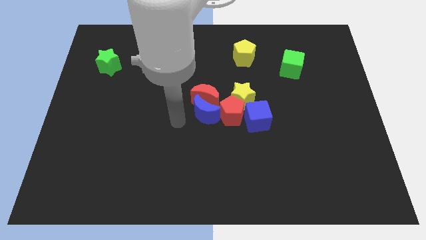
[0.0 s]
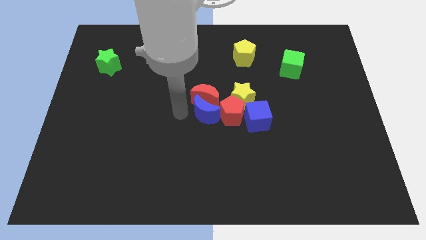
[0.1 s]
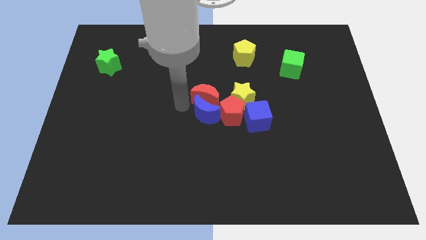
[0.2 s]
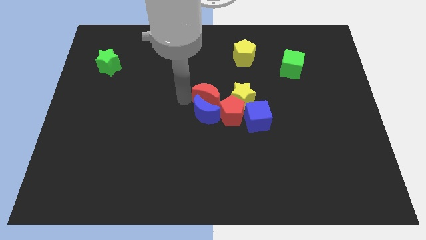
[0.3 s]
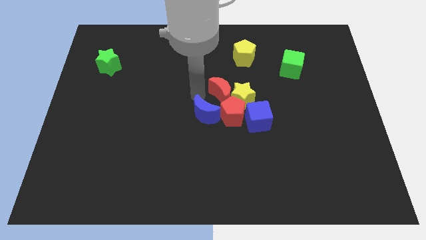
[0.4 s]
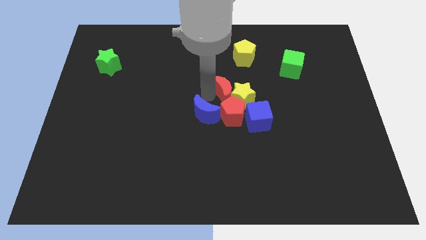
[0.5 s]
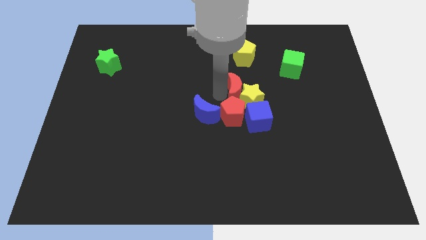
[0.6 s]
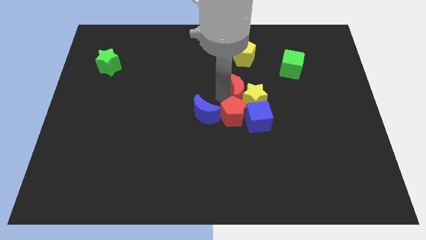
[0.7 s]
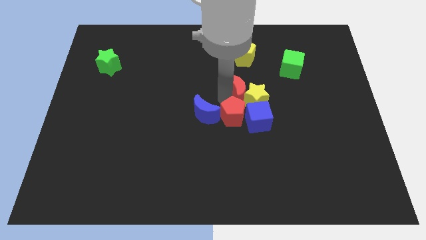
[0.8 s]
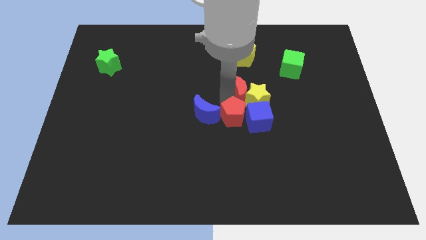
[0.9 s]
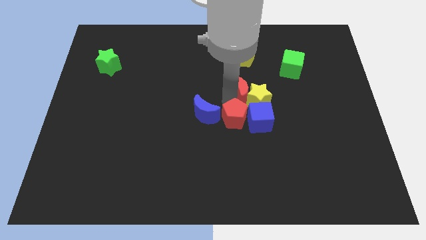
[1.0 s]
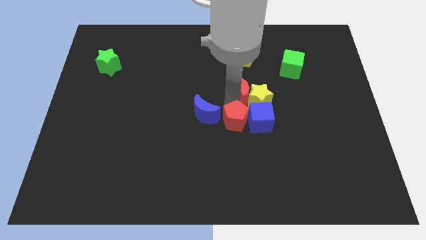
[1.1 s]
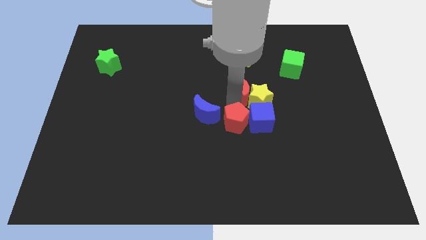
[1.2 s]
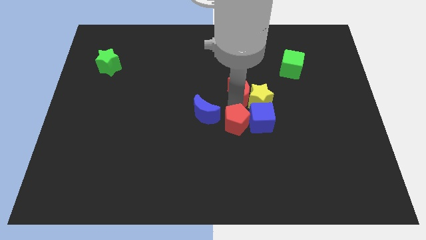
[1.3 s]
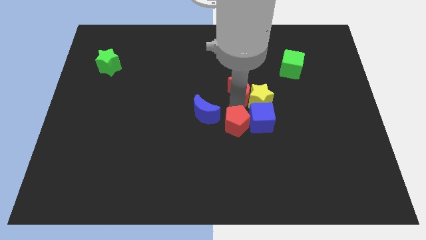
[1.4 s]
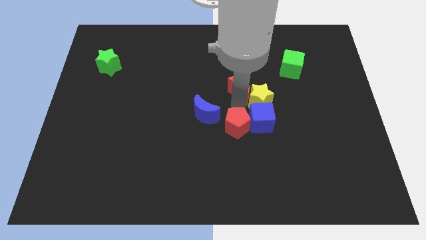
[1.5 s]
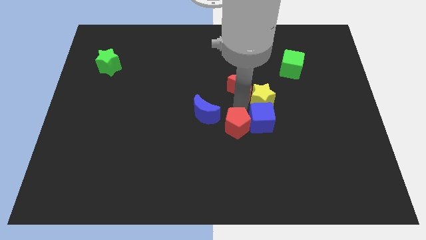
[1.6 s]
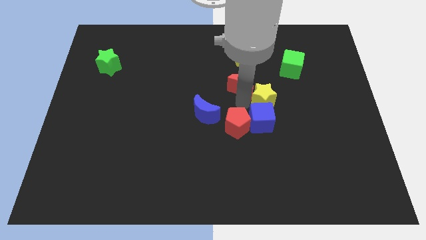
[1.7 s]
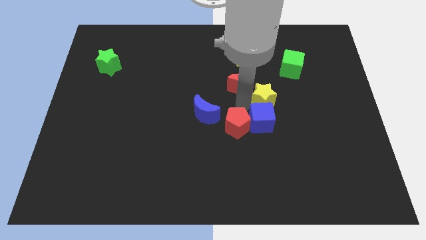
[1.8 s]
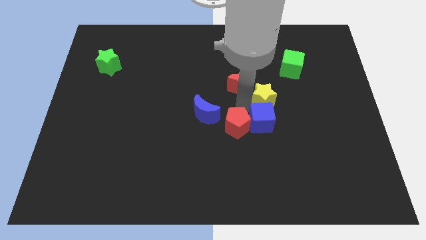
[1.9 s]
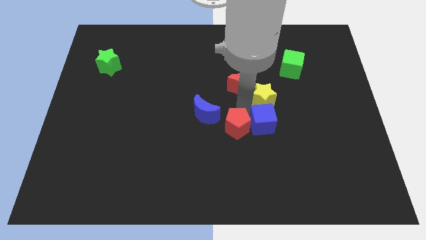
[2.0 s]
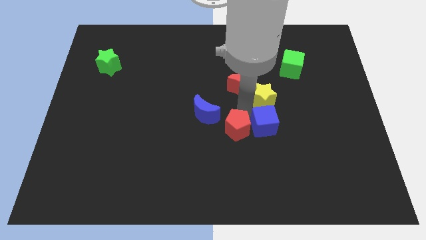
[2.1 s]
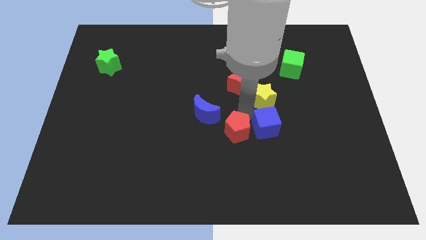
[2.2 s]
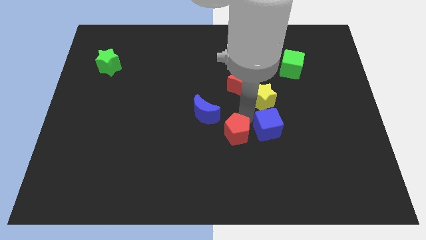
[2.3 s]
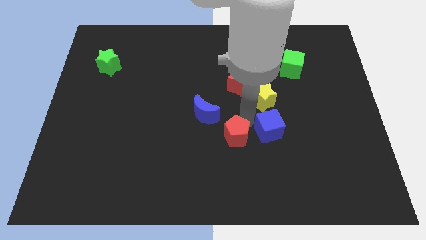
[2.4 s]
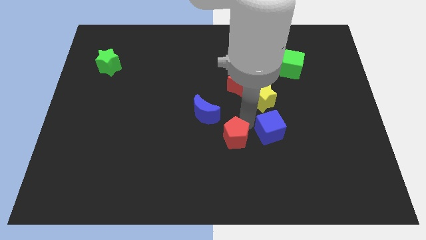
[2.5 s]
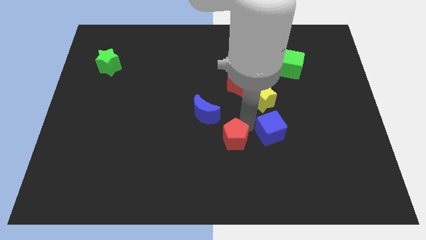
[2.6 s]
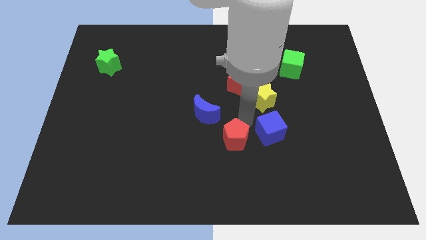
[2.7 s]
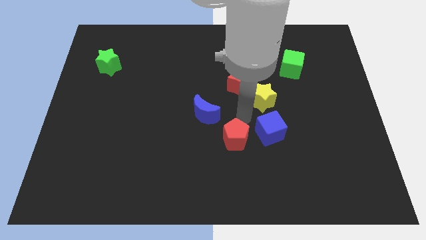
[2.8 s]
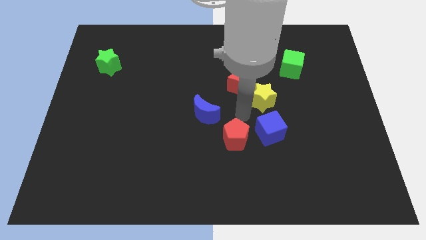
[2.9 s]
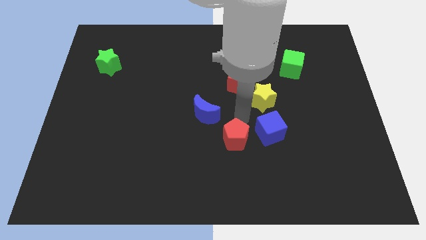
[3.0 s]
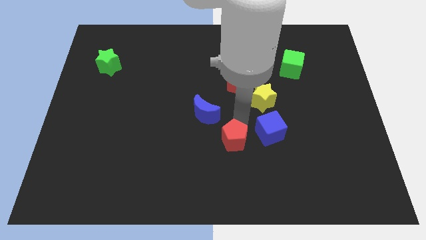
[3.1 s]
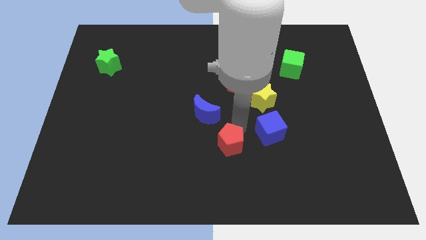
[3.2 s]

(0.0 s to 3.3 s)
pull the red pentagon apart from the clump

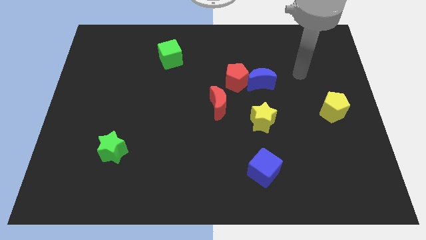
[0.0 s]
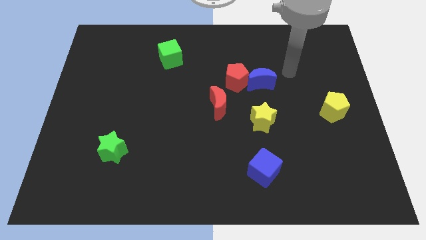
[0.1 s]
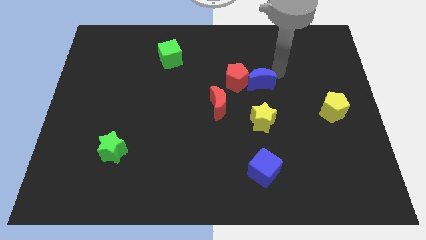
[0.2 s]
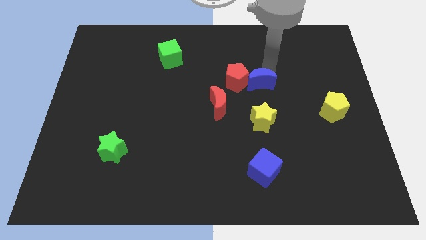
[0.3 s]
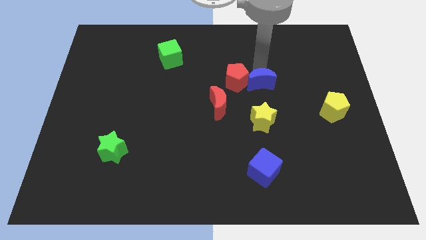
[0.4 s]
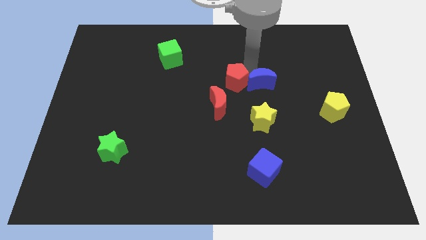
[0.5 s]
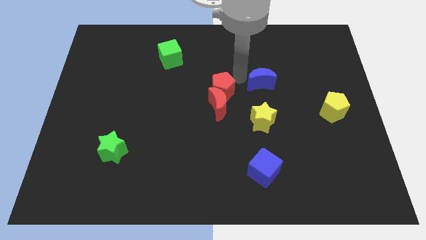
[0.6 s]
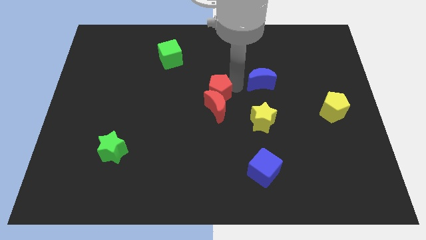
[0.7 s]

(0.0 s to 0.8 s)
separate the blue moon from the red pentagon

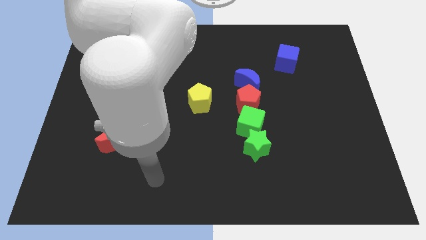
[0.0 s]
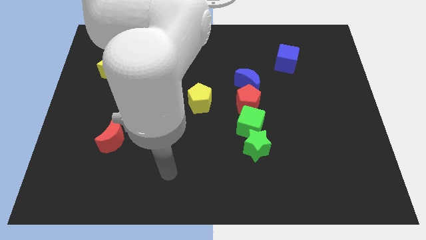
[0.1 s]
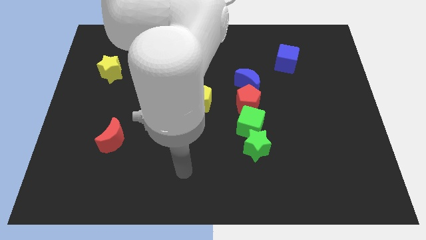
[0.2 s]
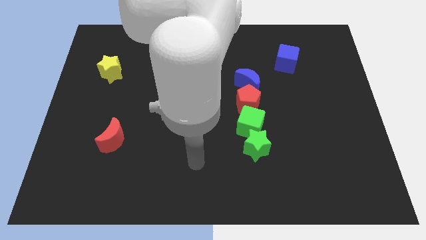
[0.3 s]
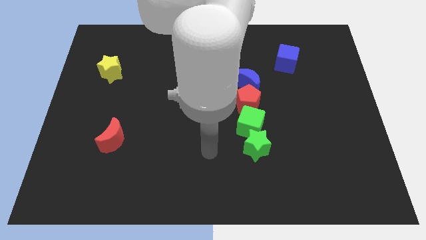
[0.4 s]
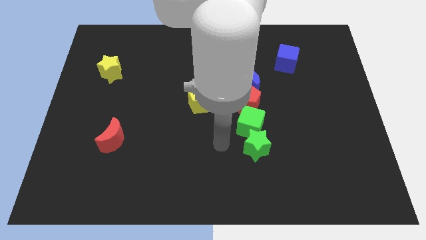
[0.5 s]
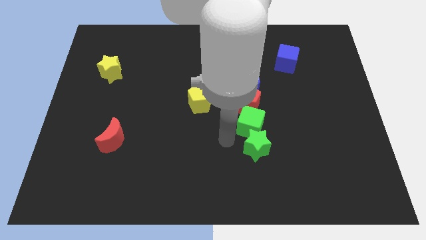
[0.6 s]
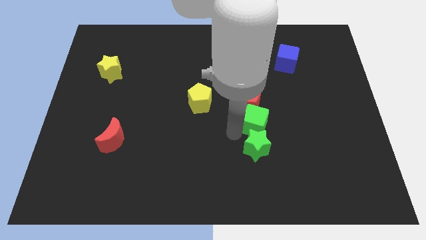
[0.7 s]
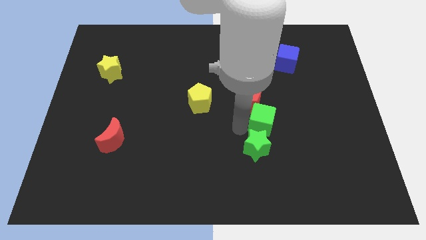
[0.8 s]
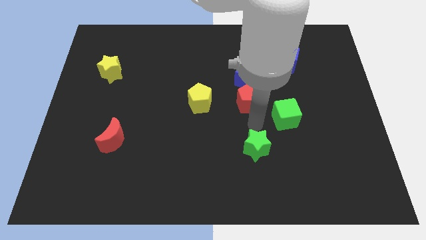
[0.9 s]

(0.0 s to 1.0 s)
separate the green star from the green cube

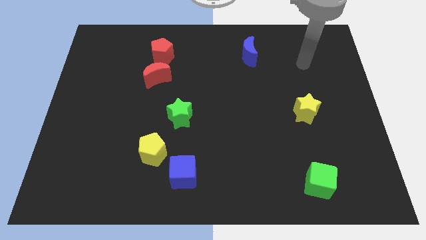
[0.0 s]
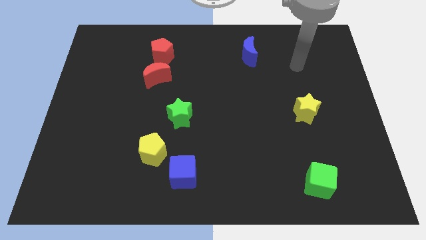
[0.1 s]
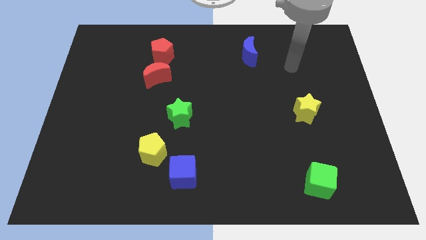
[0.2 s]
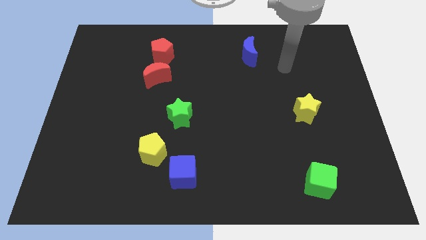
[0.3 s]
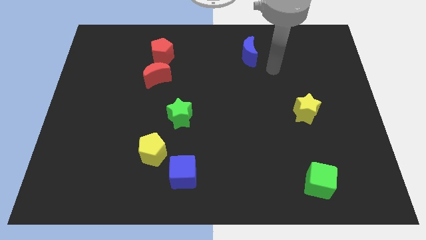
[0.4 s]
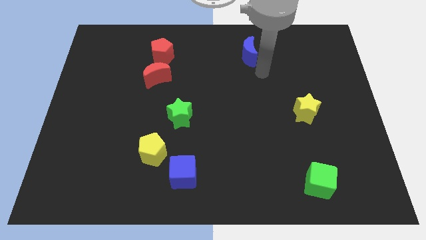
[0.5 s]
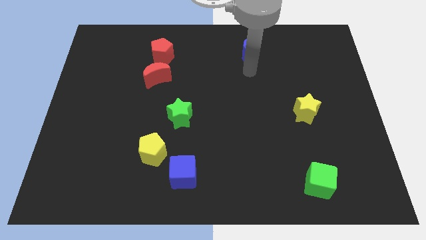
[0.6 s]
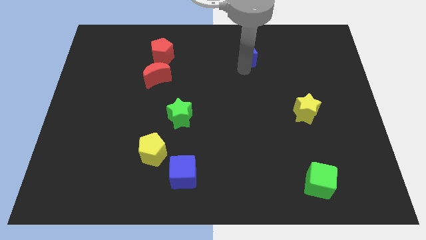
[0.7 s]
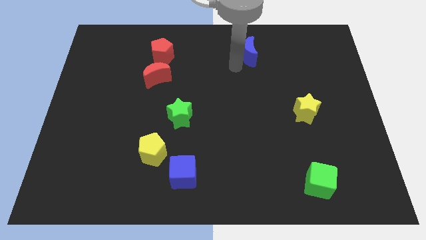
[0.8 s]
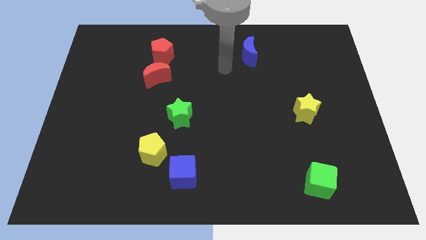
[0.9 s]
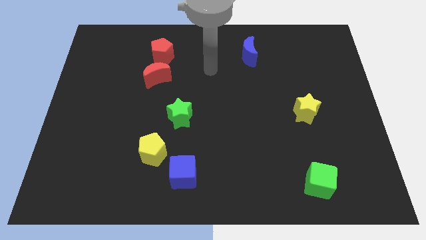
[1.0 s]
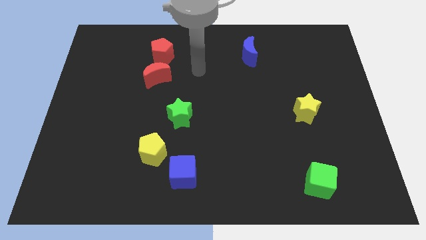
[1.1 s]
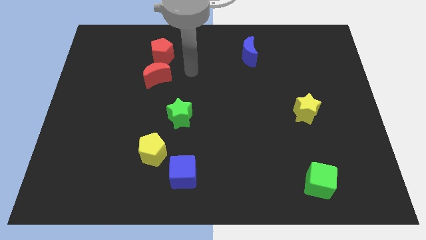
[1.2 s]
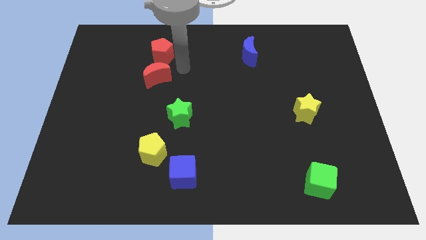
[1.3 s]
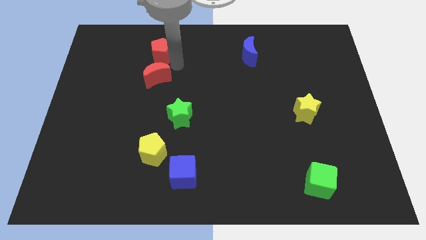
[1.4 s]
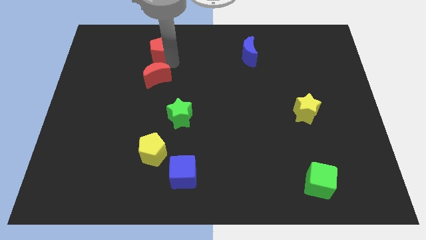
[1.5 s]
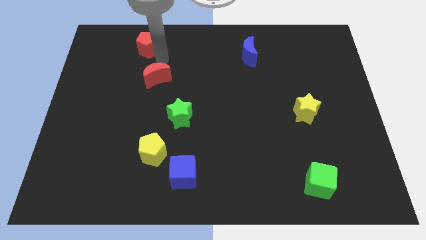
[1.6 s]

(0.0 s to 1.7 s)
pull the red moon apart from the red pentagon

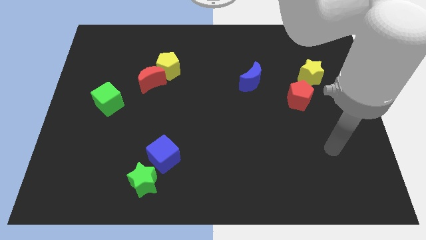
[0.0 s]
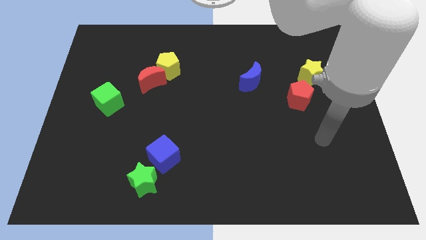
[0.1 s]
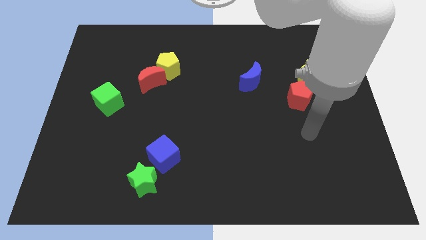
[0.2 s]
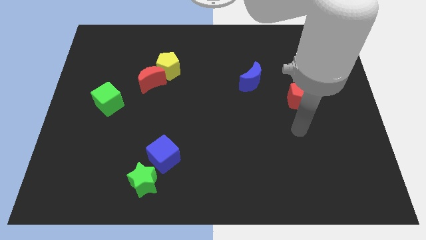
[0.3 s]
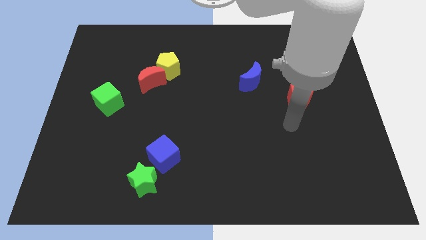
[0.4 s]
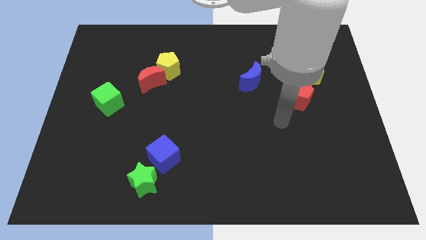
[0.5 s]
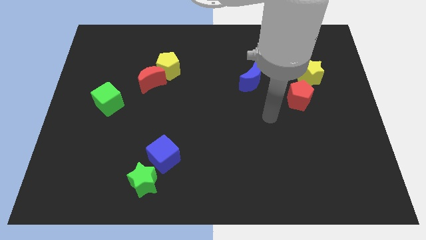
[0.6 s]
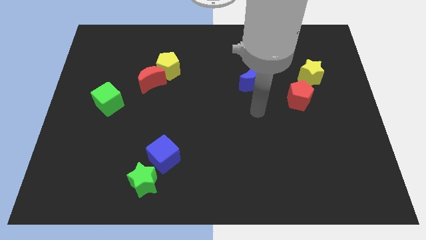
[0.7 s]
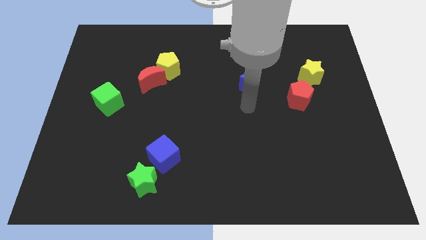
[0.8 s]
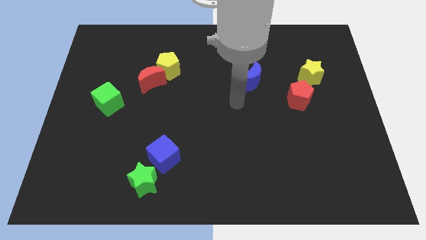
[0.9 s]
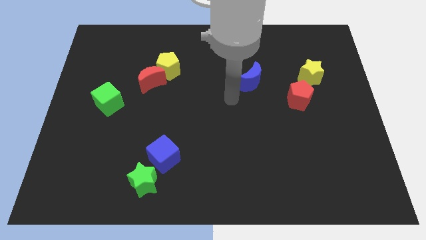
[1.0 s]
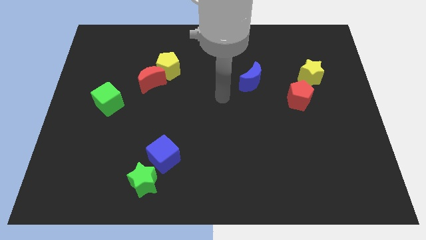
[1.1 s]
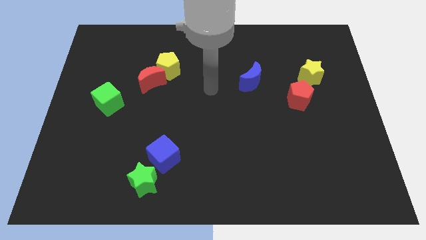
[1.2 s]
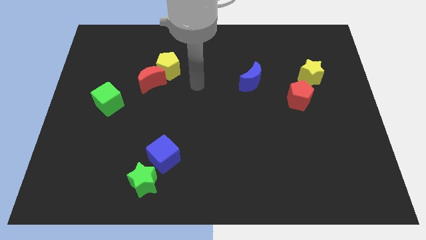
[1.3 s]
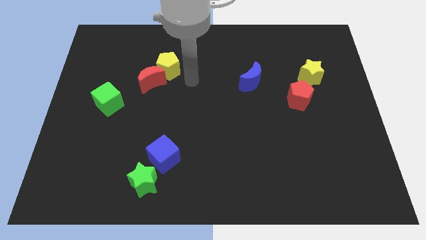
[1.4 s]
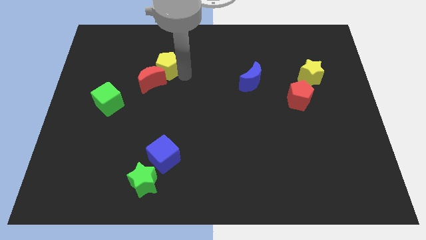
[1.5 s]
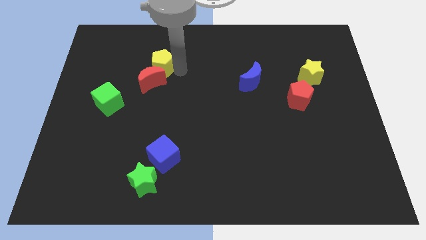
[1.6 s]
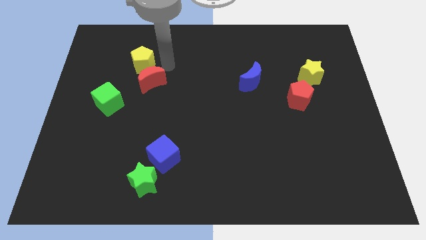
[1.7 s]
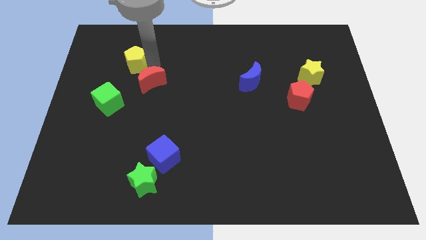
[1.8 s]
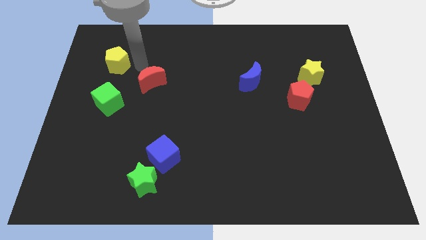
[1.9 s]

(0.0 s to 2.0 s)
pull the red moon apart from the yellow pentagon

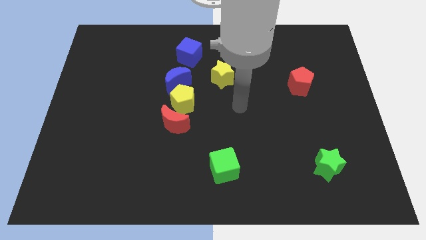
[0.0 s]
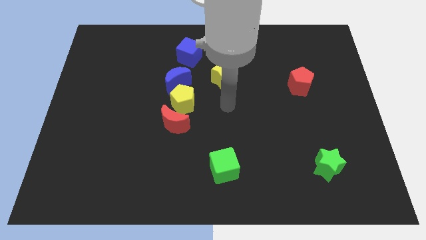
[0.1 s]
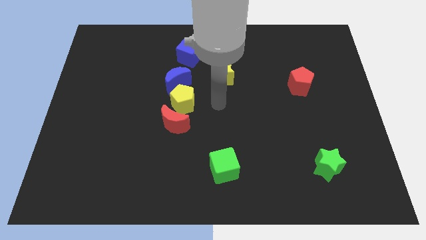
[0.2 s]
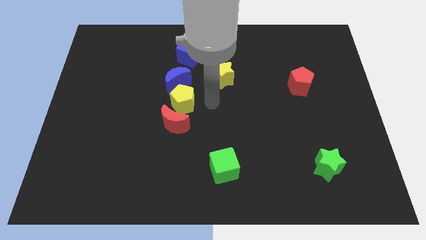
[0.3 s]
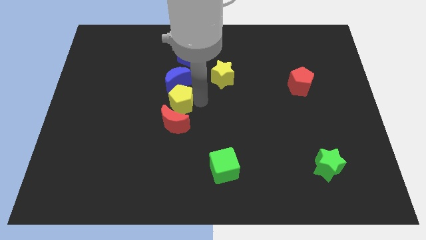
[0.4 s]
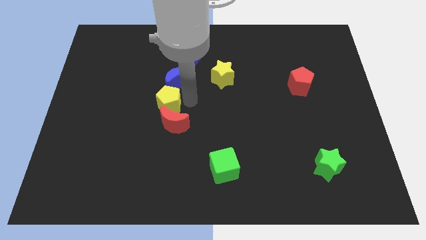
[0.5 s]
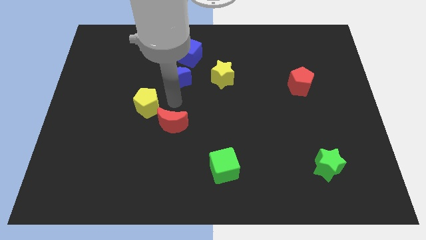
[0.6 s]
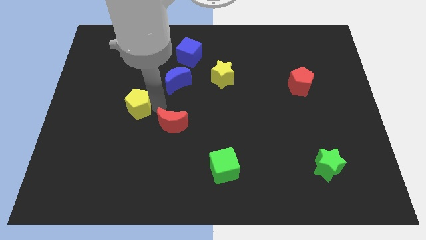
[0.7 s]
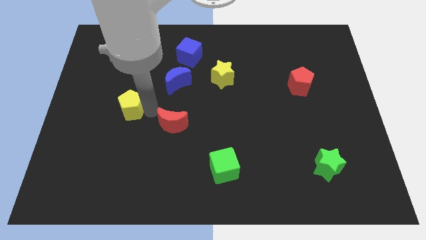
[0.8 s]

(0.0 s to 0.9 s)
move the red moon away from the yellow pentagon
